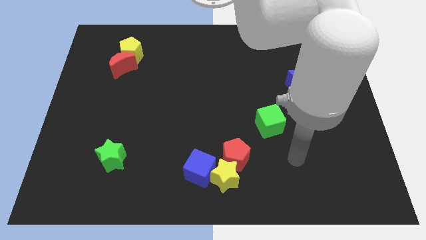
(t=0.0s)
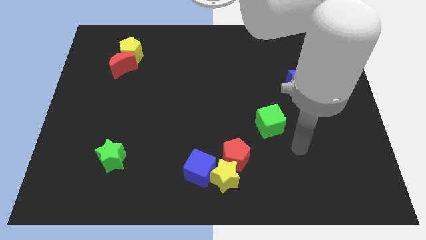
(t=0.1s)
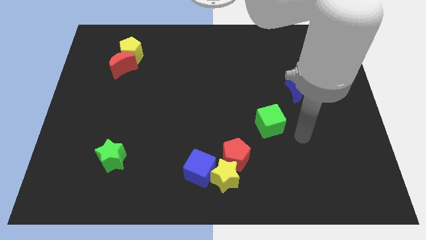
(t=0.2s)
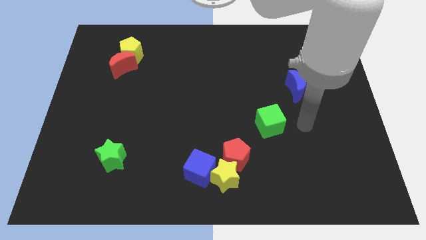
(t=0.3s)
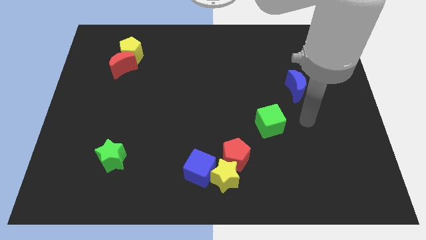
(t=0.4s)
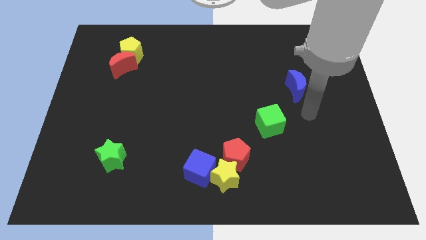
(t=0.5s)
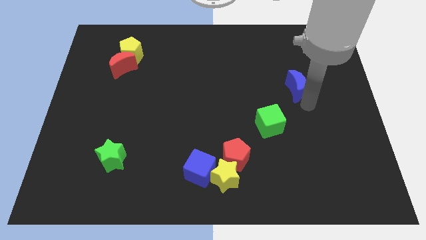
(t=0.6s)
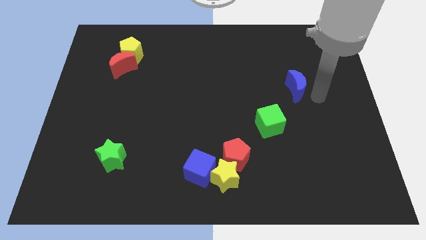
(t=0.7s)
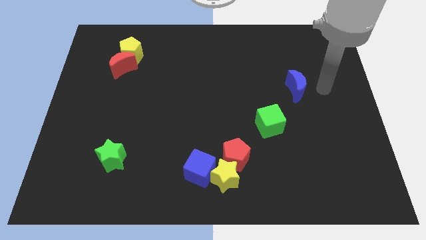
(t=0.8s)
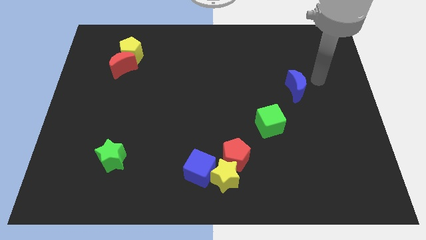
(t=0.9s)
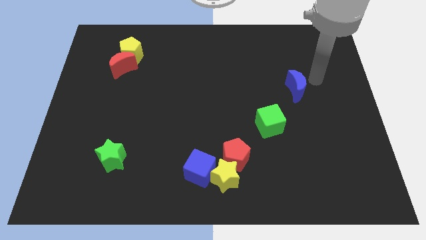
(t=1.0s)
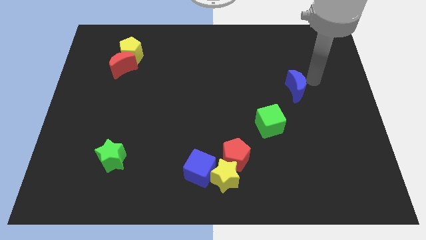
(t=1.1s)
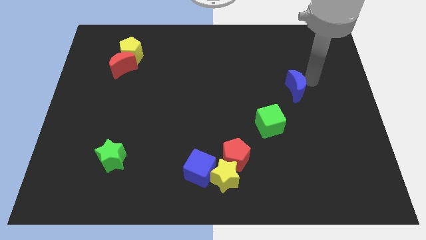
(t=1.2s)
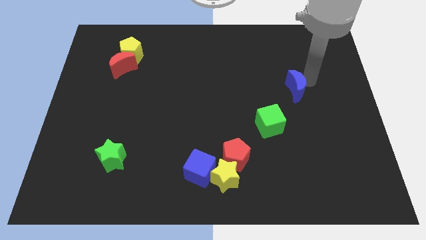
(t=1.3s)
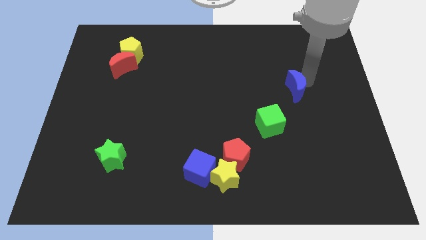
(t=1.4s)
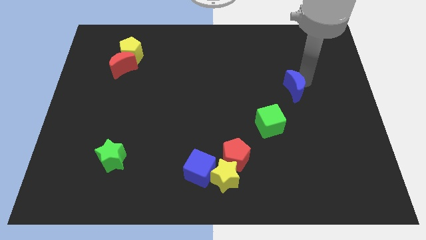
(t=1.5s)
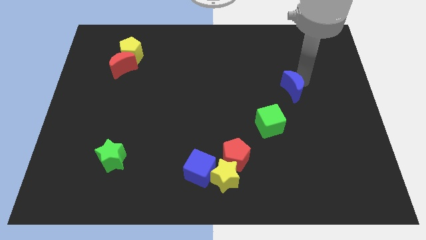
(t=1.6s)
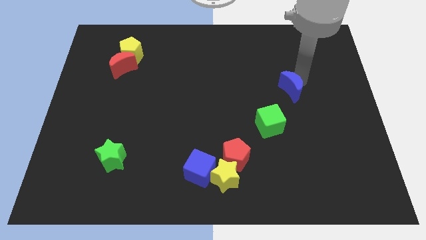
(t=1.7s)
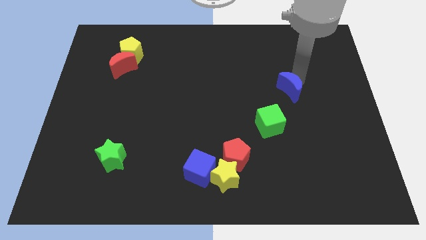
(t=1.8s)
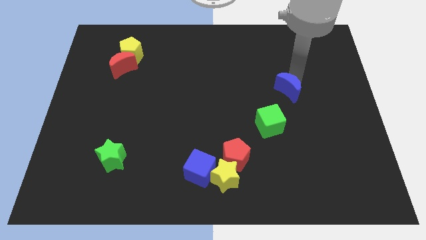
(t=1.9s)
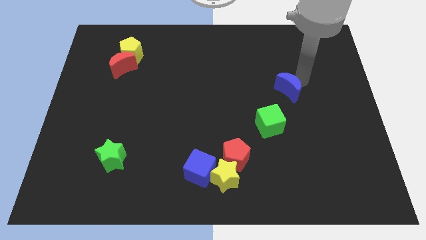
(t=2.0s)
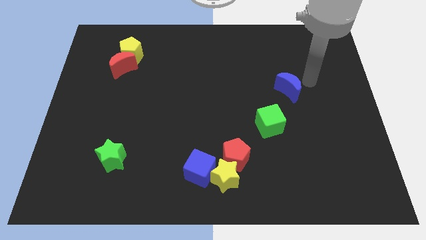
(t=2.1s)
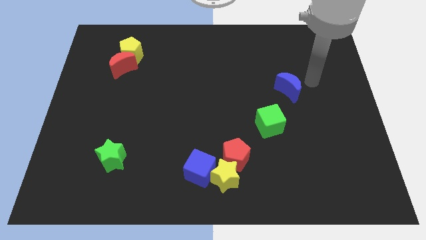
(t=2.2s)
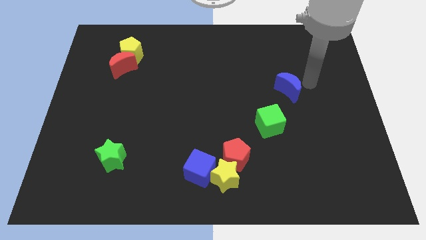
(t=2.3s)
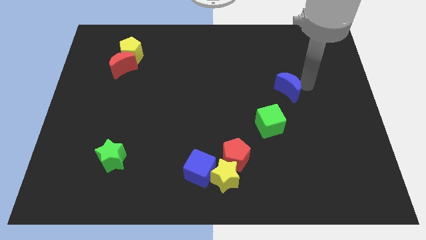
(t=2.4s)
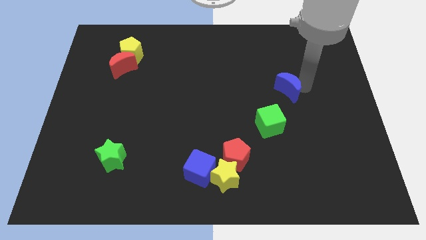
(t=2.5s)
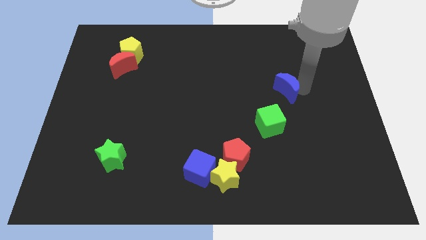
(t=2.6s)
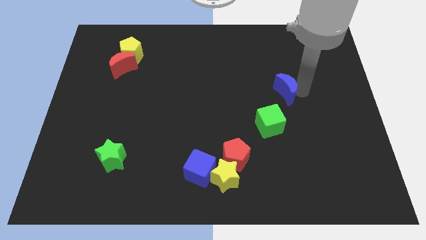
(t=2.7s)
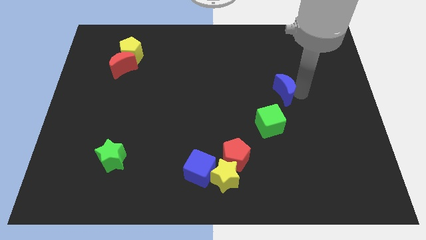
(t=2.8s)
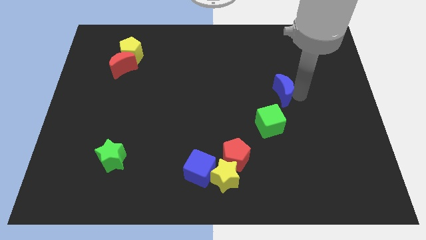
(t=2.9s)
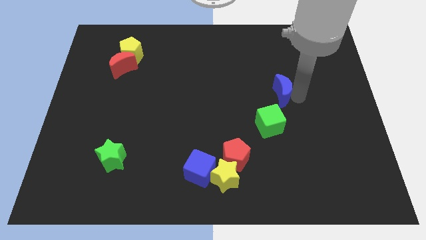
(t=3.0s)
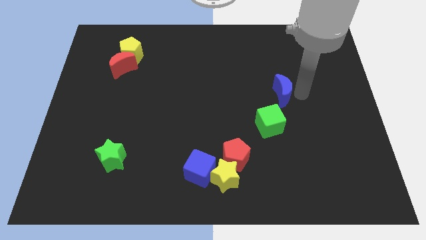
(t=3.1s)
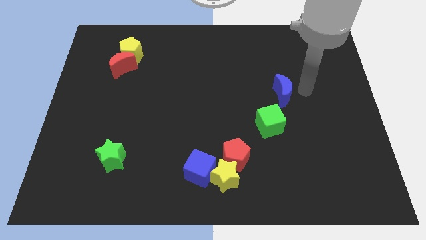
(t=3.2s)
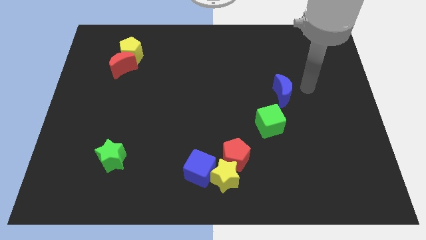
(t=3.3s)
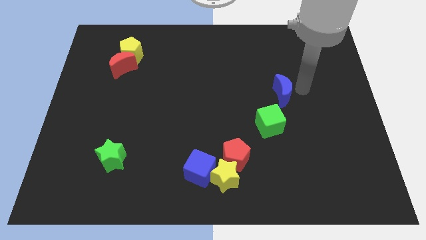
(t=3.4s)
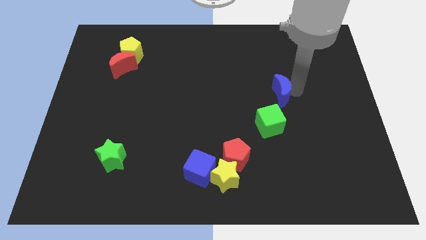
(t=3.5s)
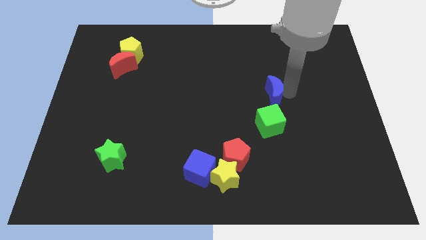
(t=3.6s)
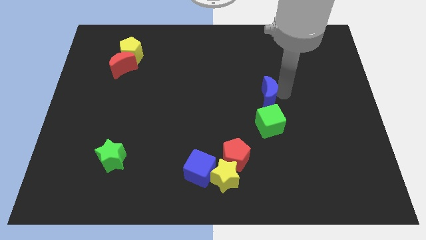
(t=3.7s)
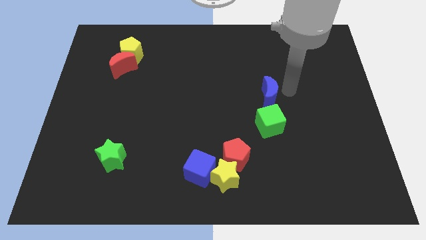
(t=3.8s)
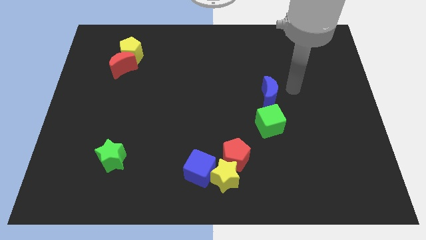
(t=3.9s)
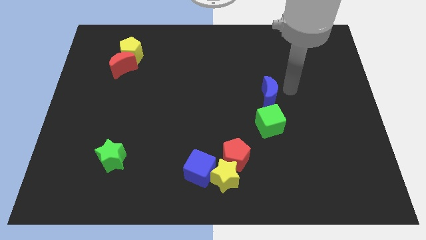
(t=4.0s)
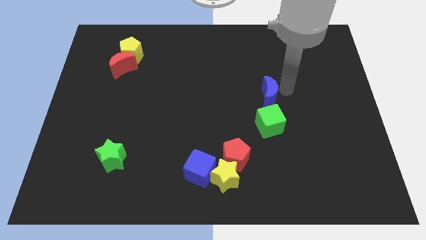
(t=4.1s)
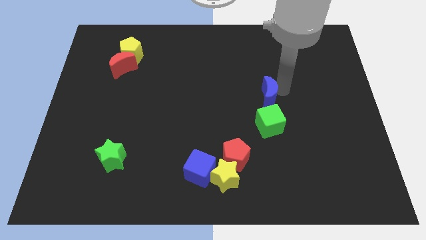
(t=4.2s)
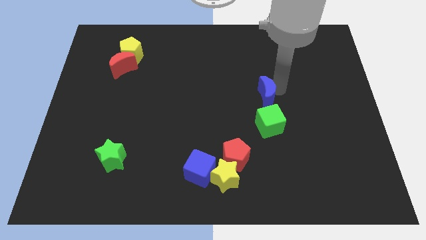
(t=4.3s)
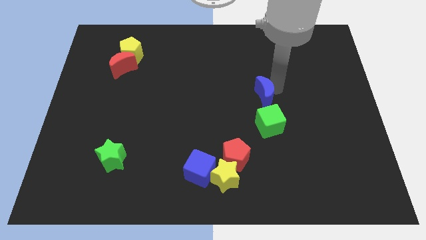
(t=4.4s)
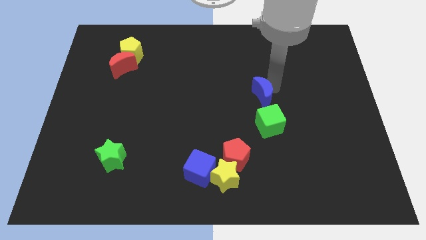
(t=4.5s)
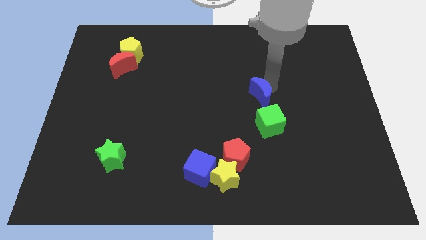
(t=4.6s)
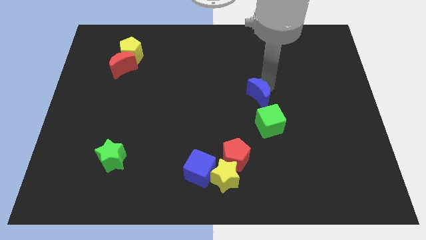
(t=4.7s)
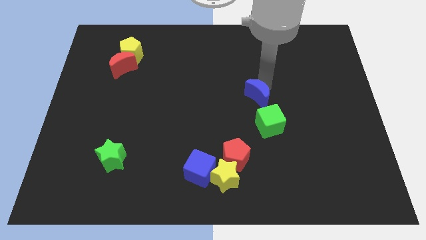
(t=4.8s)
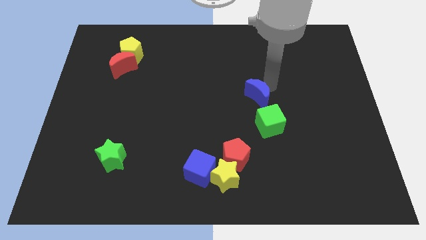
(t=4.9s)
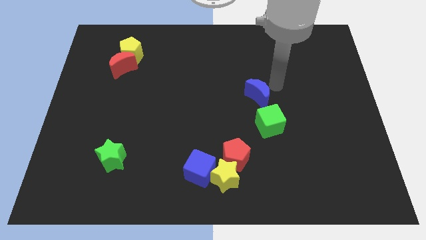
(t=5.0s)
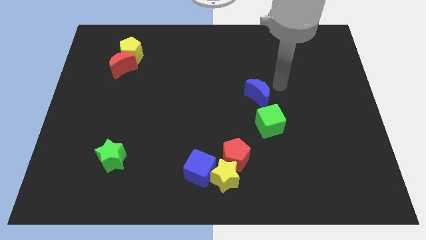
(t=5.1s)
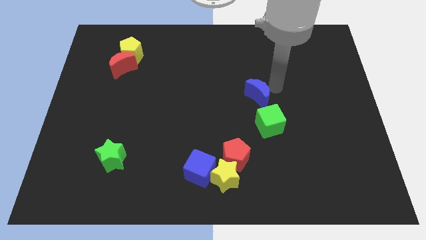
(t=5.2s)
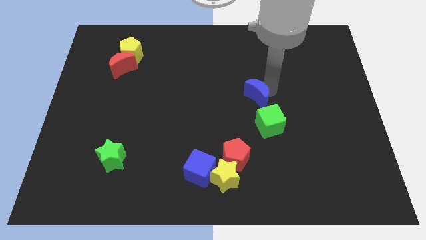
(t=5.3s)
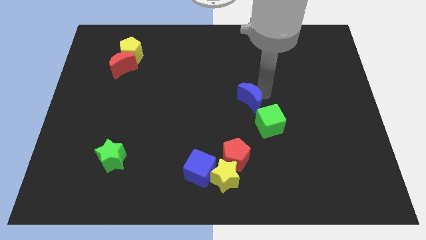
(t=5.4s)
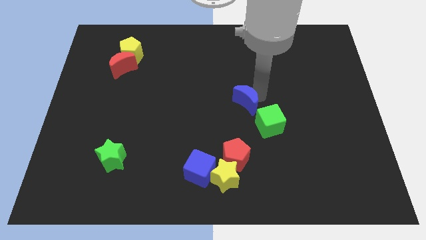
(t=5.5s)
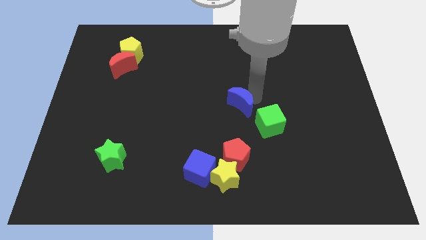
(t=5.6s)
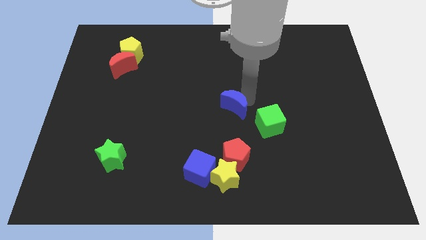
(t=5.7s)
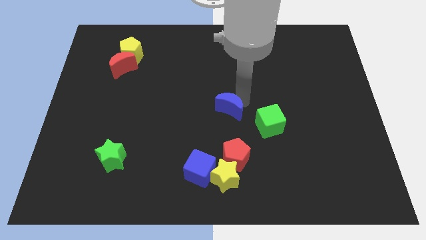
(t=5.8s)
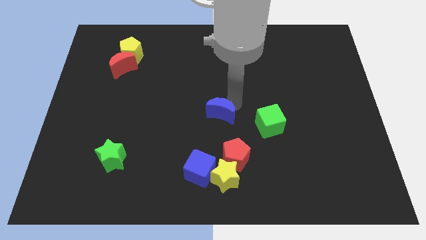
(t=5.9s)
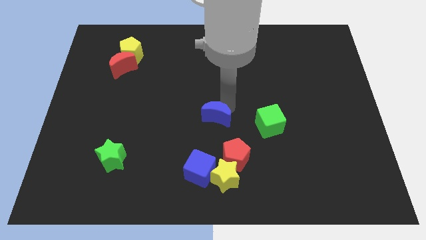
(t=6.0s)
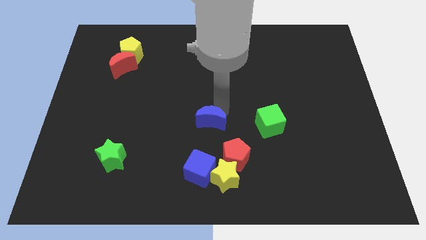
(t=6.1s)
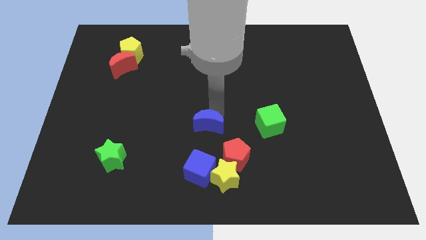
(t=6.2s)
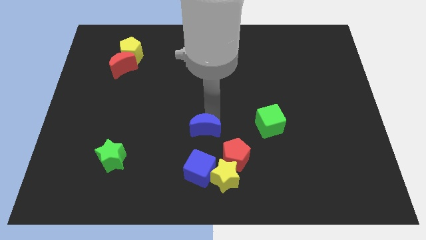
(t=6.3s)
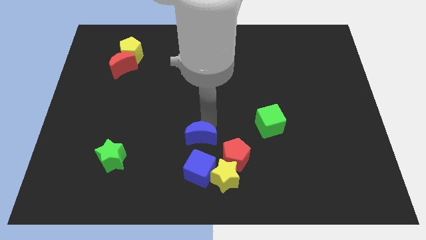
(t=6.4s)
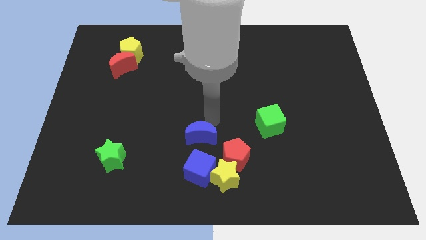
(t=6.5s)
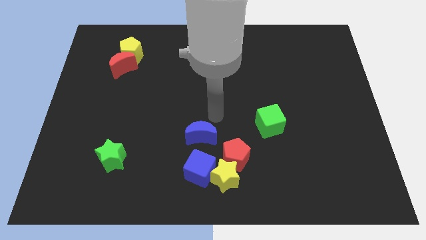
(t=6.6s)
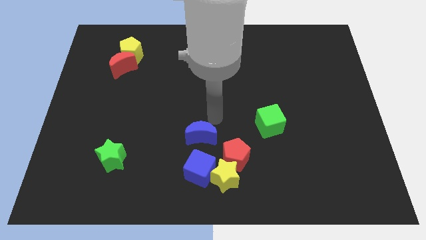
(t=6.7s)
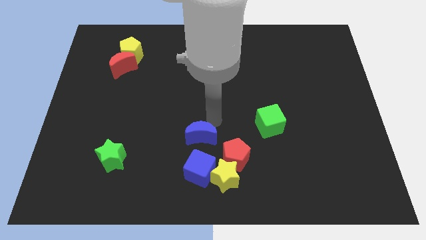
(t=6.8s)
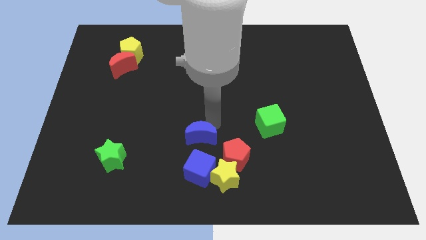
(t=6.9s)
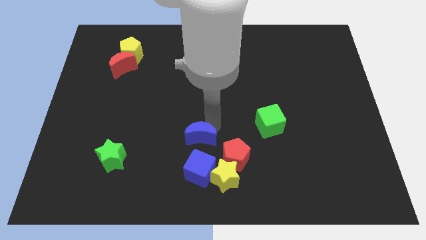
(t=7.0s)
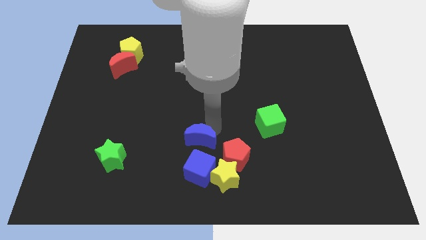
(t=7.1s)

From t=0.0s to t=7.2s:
push the blue moon to the left side of the red pentagon
